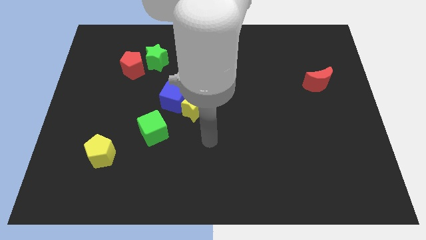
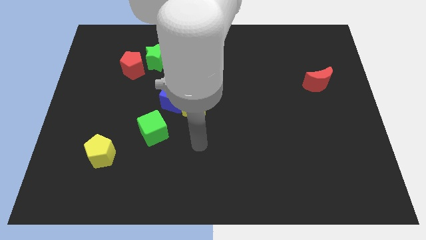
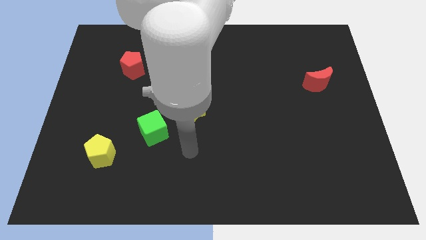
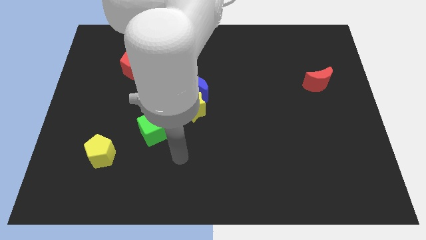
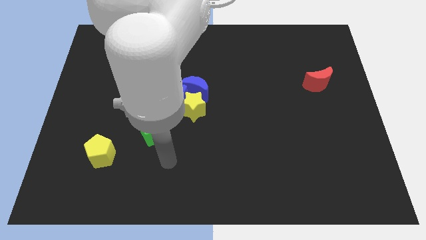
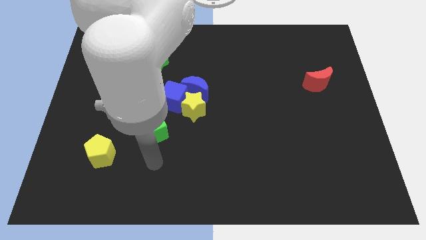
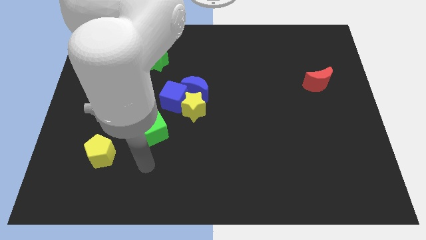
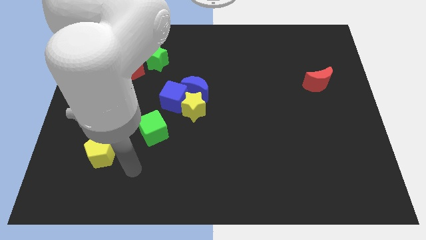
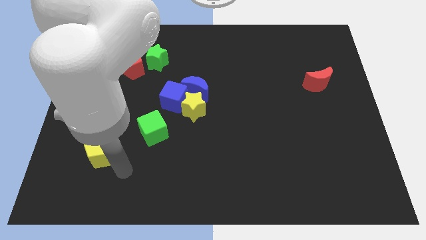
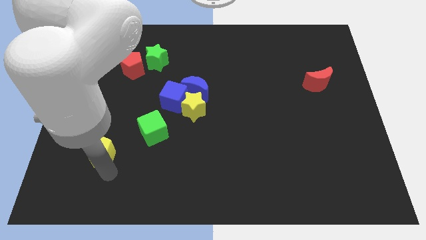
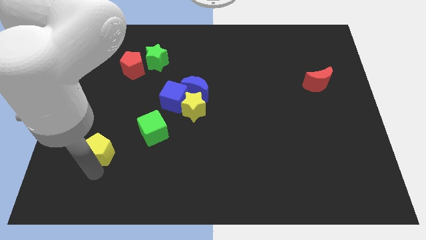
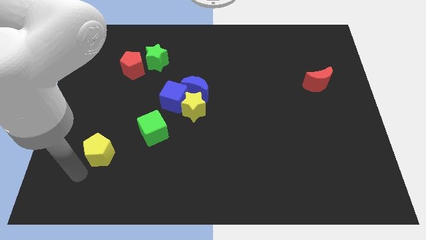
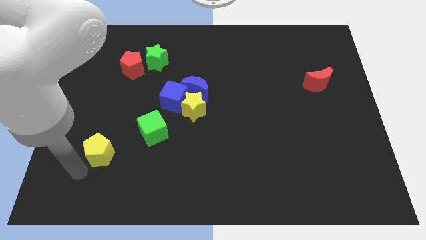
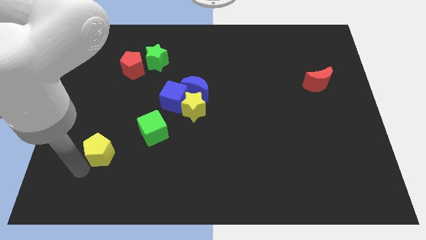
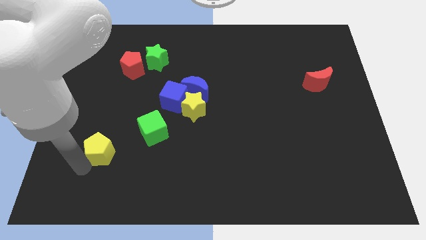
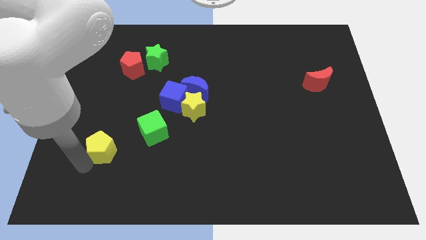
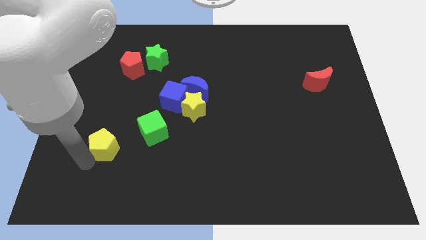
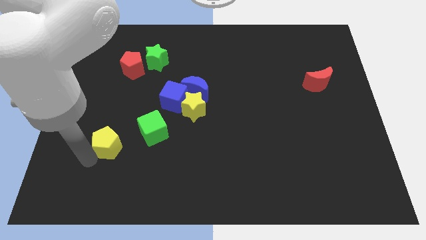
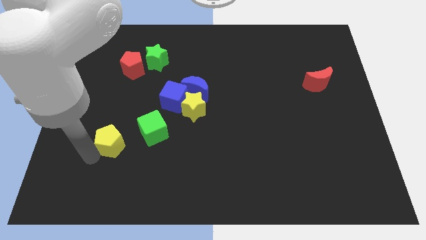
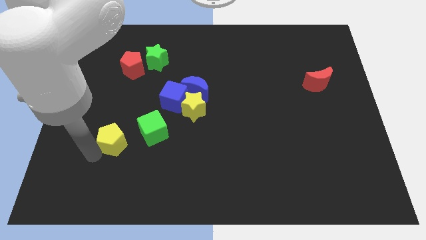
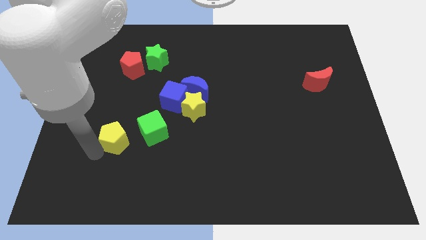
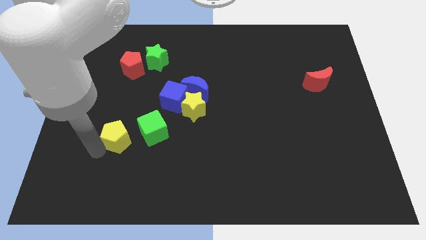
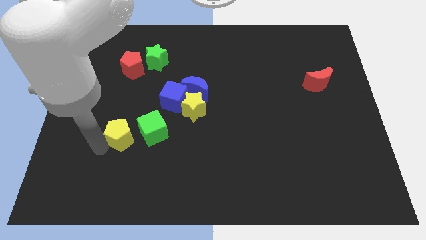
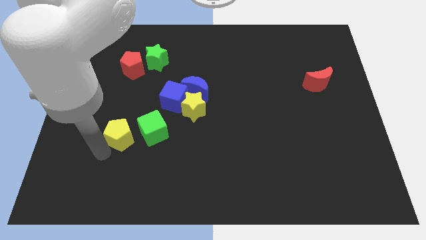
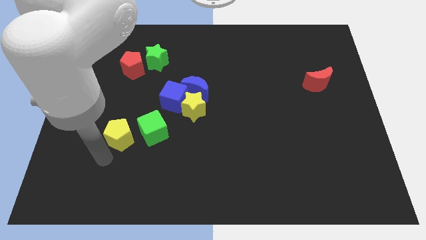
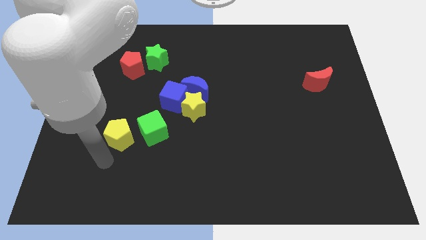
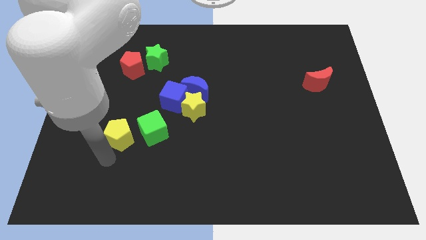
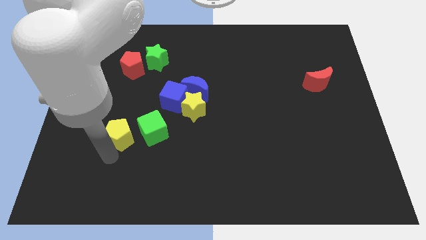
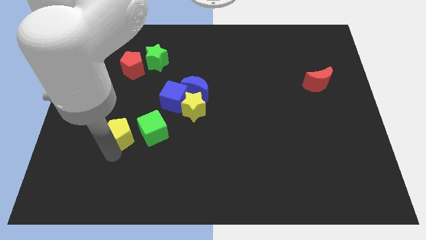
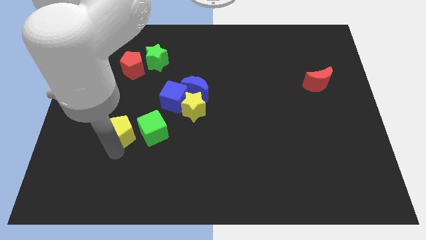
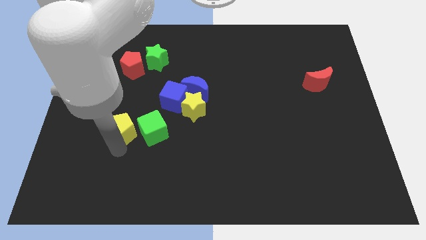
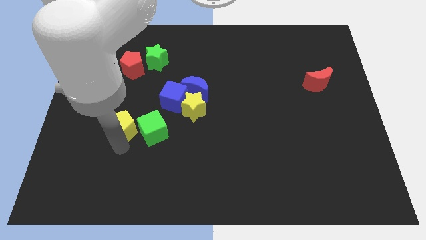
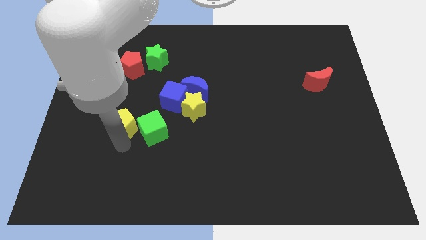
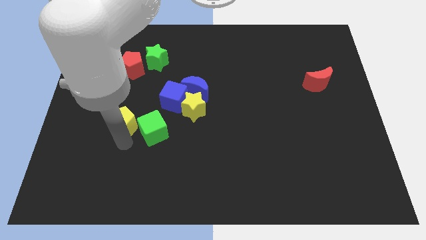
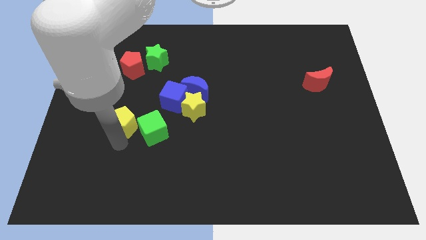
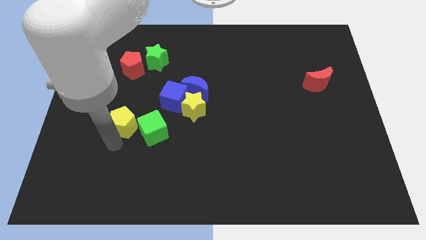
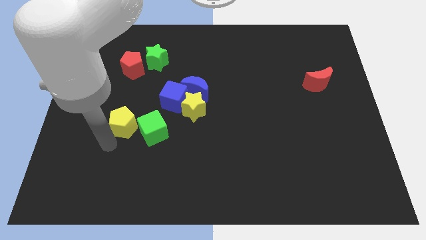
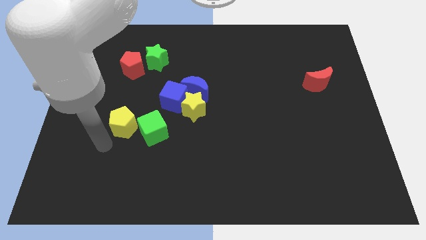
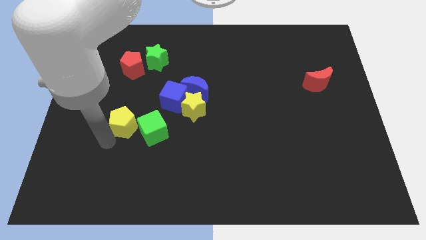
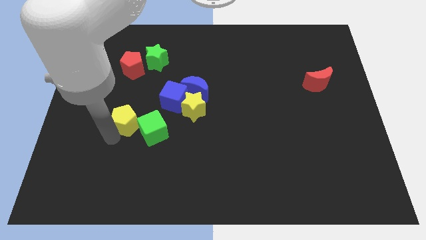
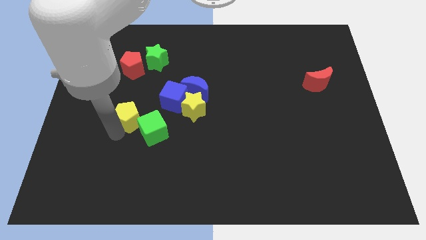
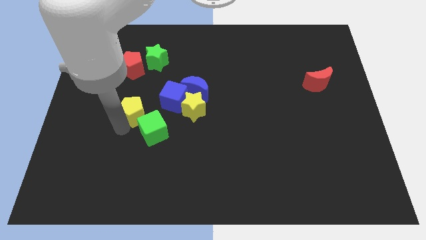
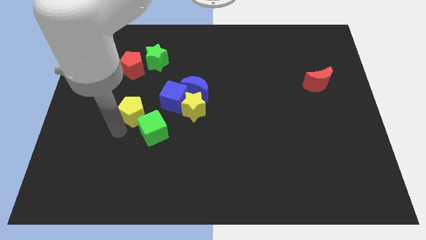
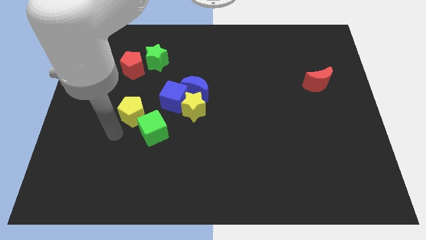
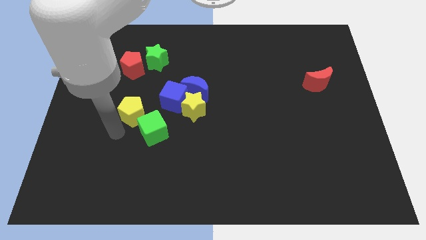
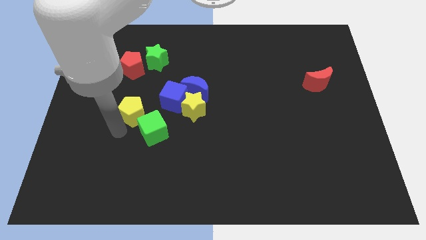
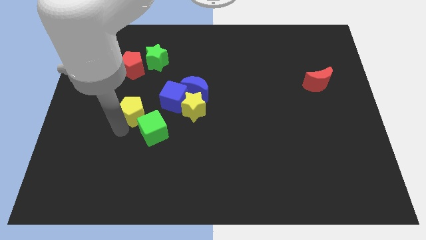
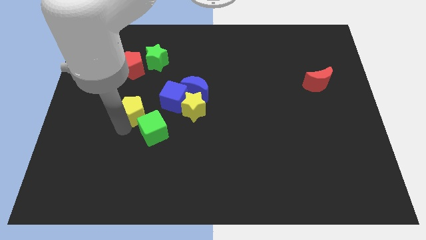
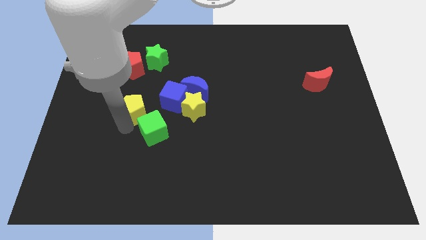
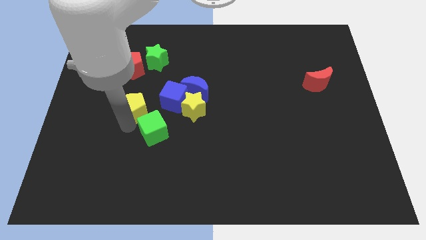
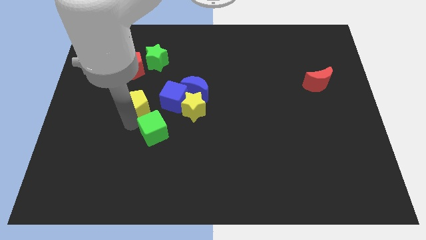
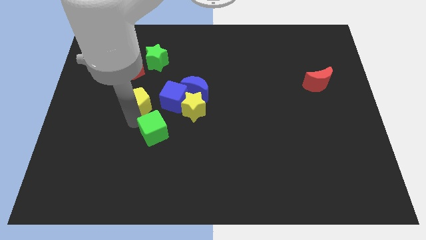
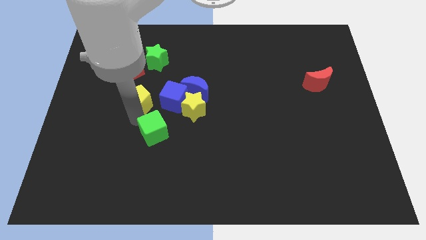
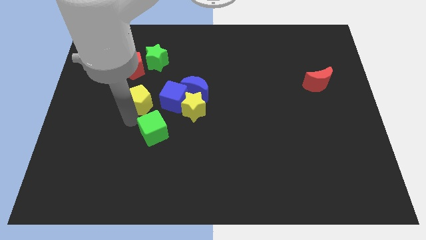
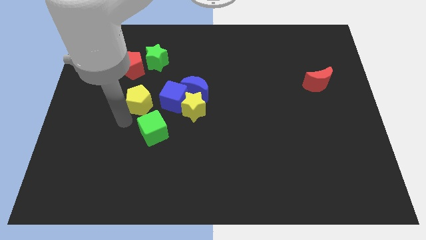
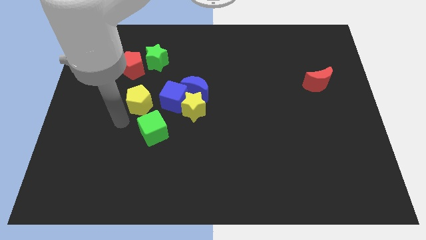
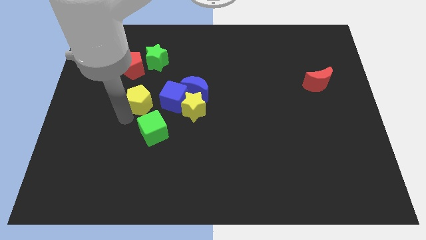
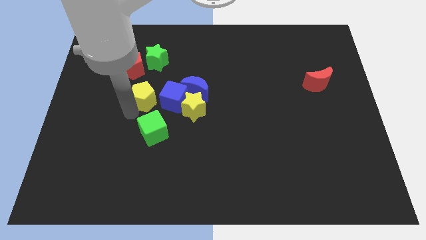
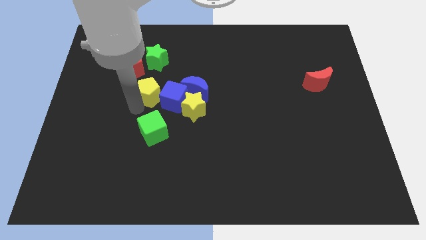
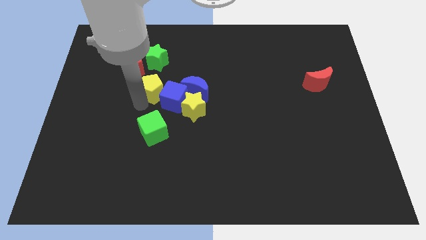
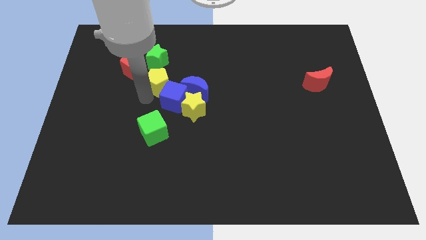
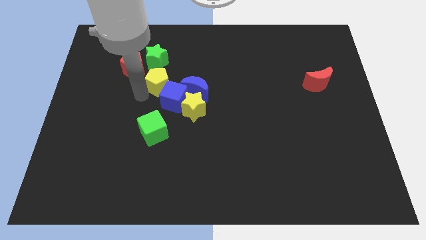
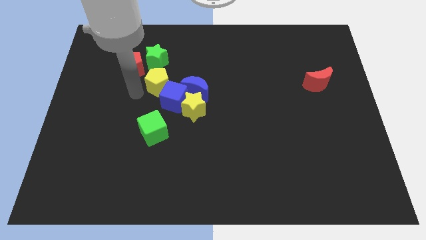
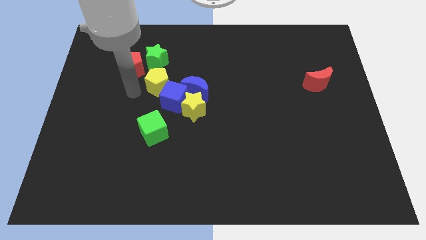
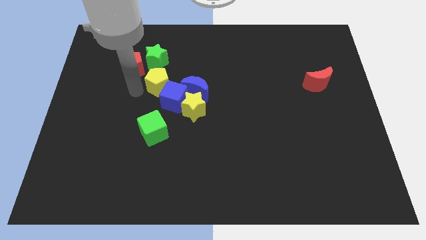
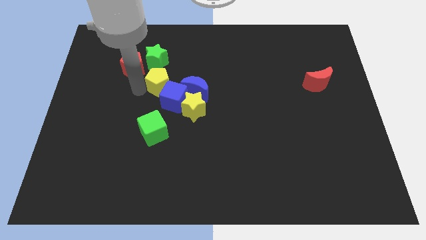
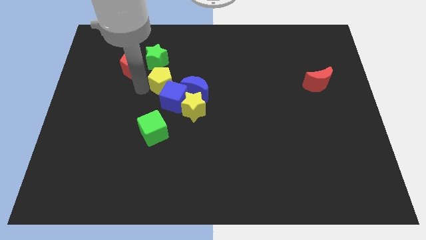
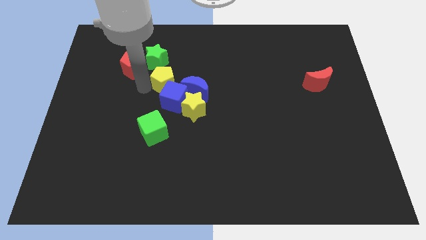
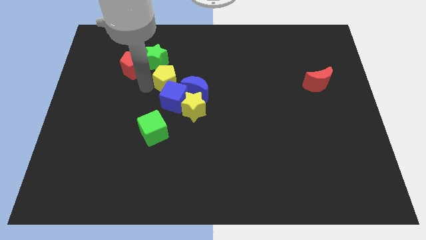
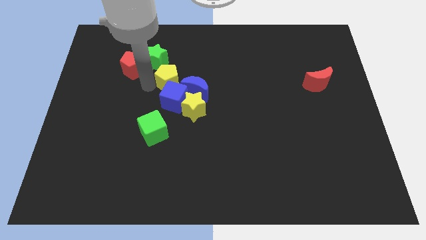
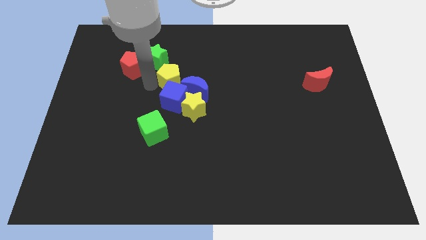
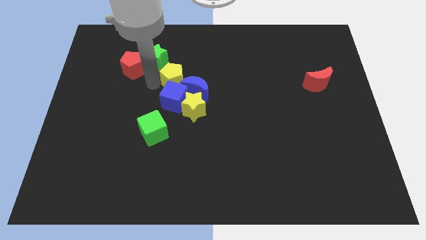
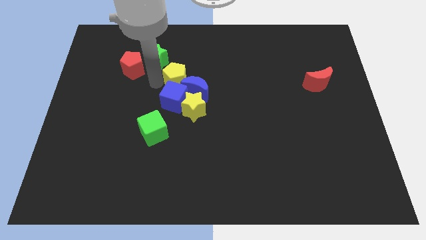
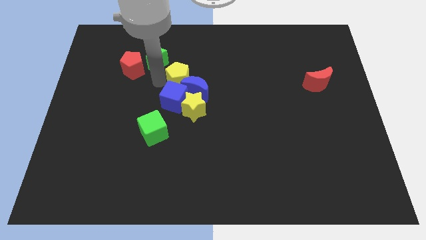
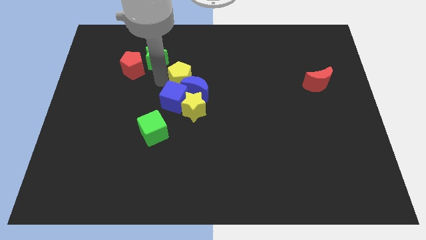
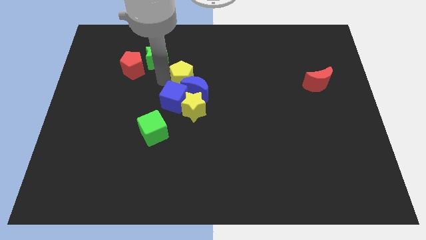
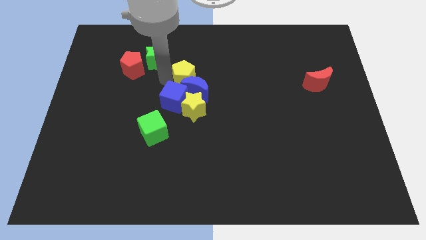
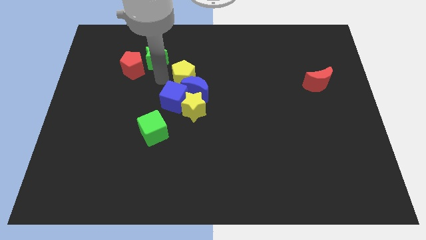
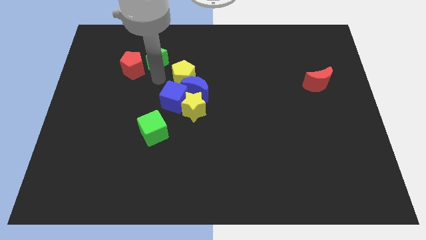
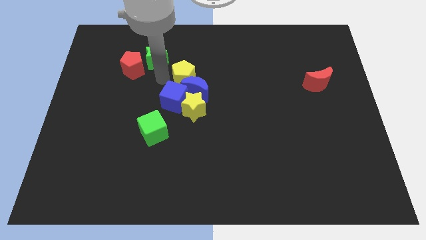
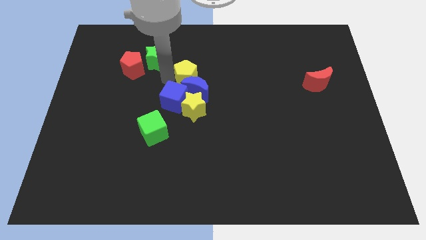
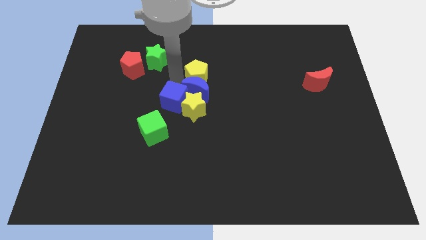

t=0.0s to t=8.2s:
put the yellow pentagon to the top right side of the blue moon
